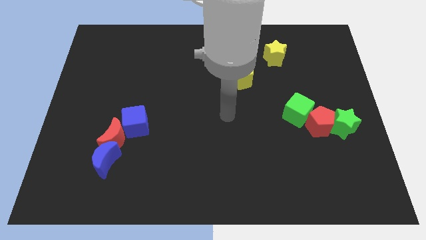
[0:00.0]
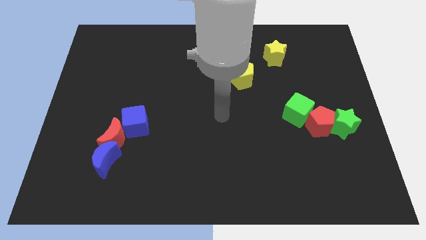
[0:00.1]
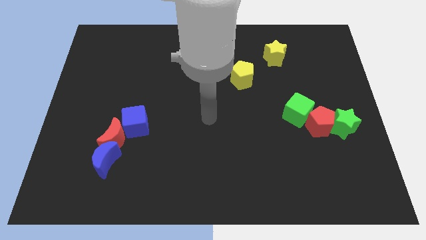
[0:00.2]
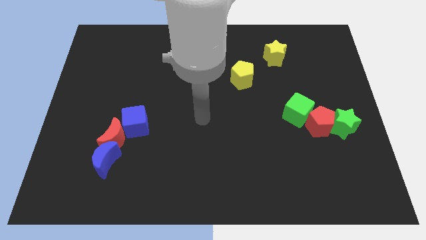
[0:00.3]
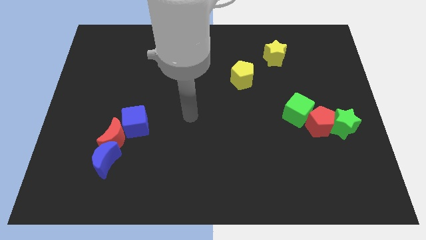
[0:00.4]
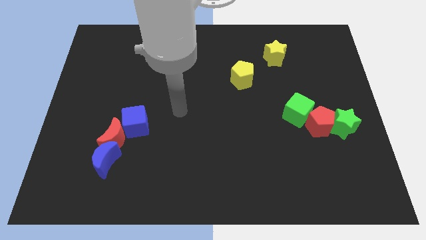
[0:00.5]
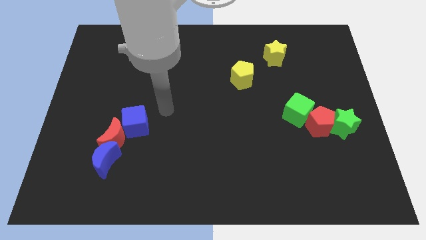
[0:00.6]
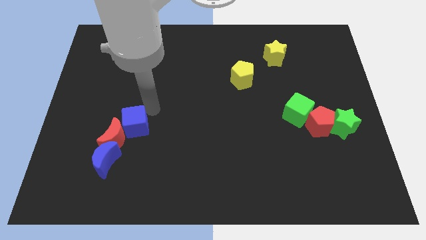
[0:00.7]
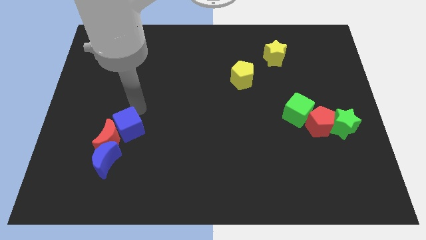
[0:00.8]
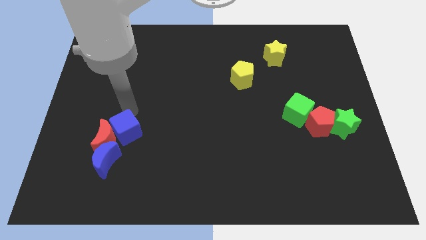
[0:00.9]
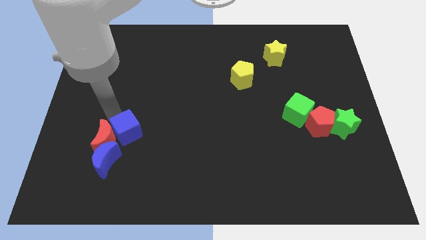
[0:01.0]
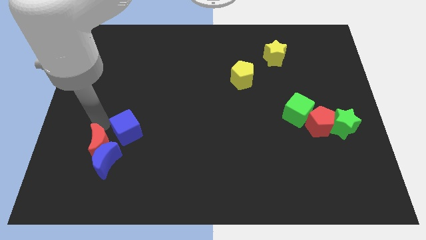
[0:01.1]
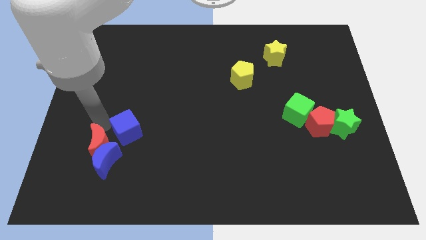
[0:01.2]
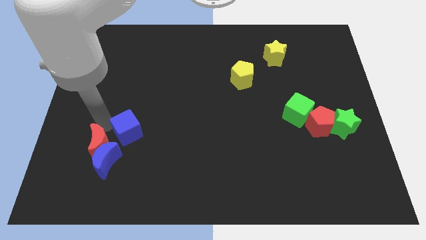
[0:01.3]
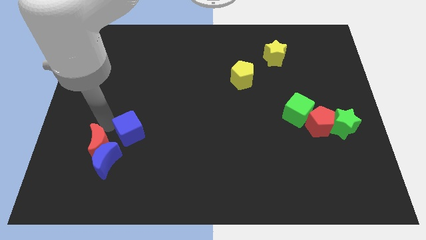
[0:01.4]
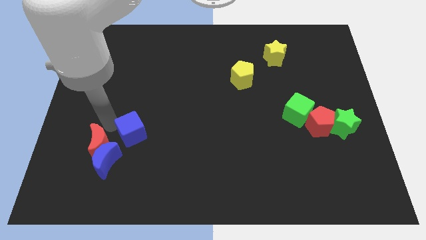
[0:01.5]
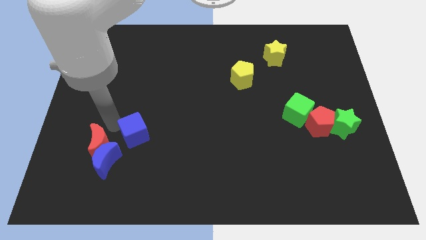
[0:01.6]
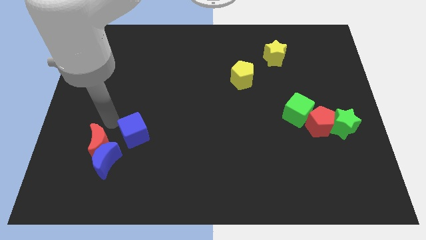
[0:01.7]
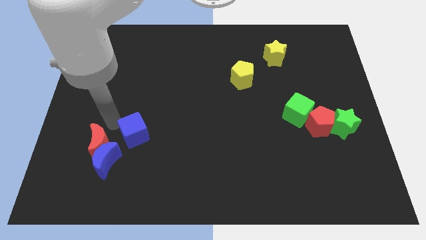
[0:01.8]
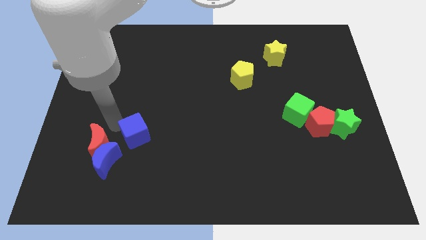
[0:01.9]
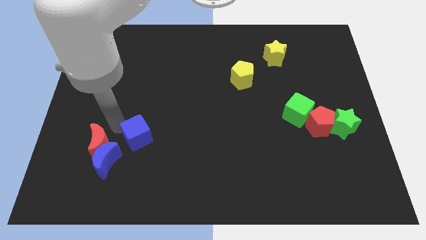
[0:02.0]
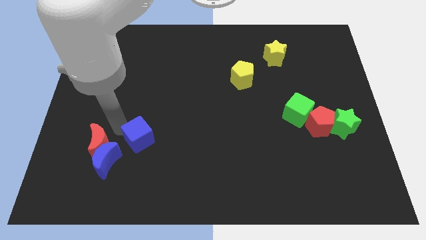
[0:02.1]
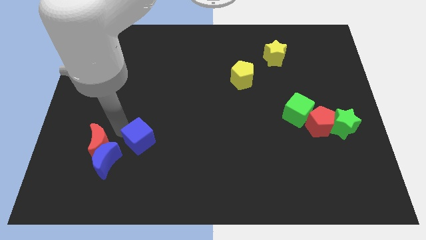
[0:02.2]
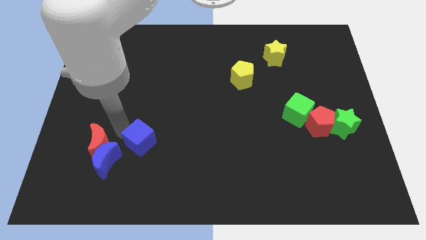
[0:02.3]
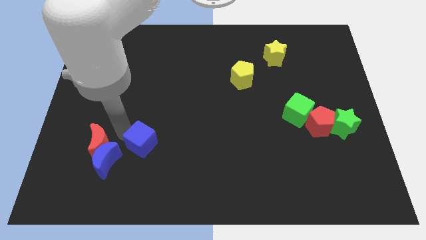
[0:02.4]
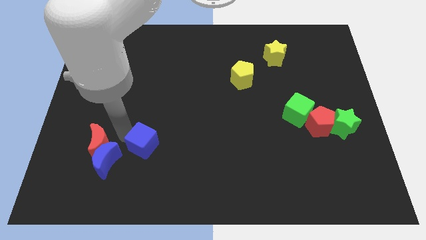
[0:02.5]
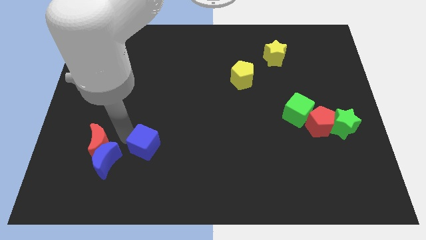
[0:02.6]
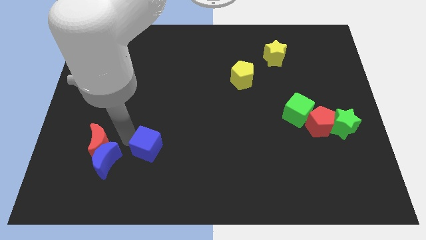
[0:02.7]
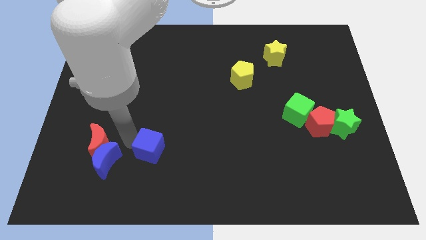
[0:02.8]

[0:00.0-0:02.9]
move the blue cube a little bit down and right diagonally

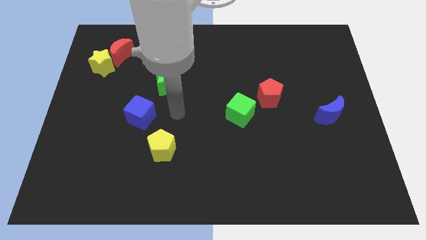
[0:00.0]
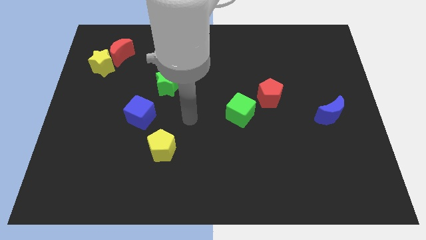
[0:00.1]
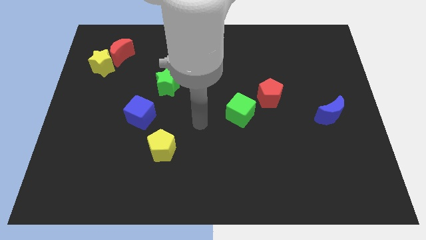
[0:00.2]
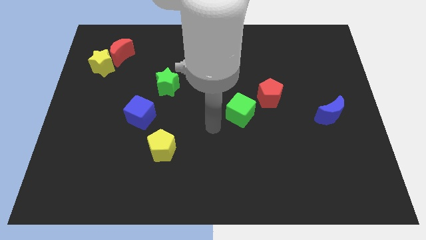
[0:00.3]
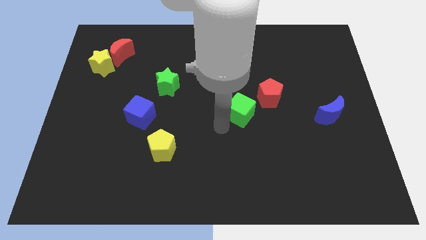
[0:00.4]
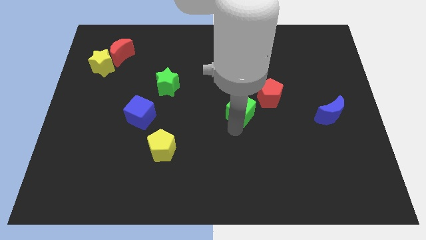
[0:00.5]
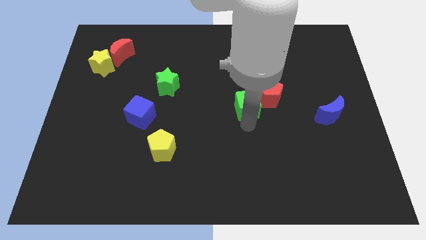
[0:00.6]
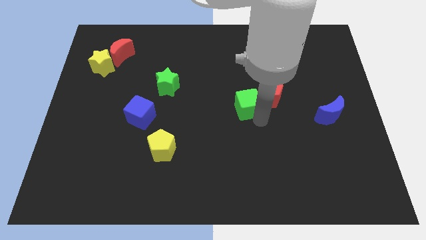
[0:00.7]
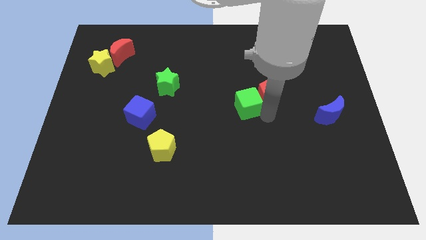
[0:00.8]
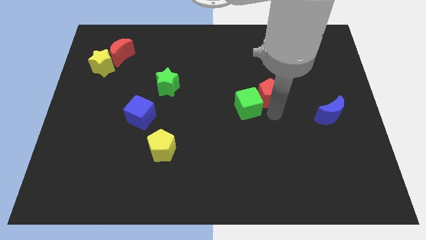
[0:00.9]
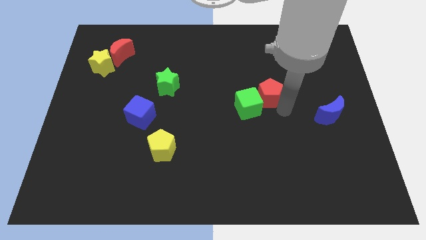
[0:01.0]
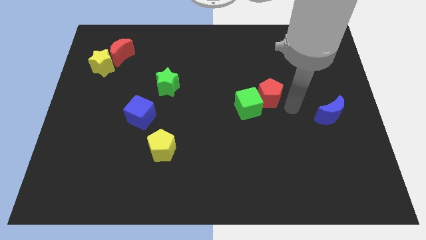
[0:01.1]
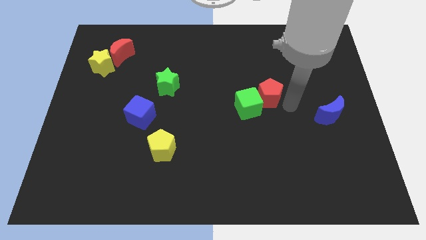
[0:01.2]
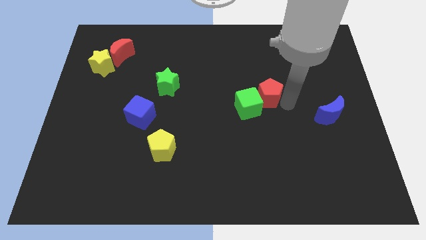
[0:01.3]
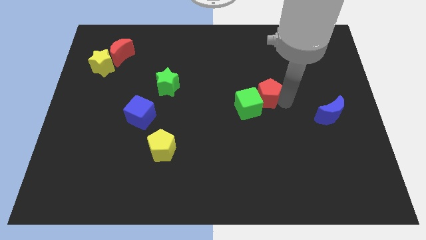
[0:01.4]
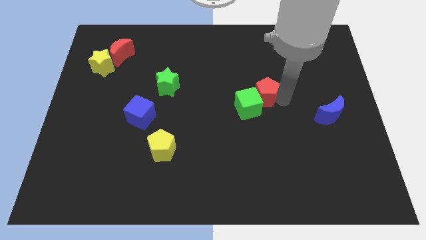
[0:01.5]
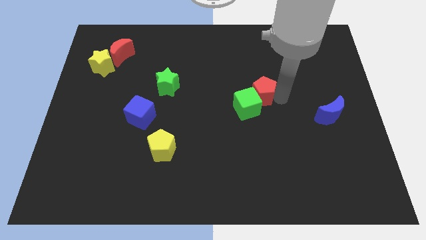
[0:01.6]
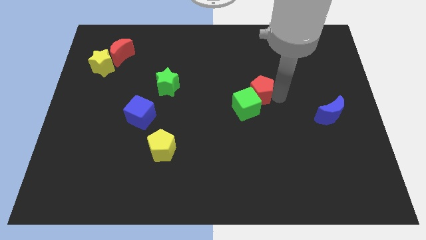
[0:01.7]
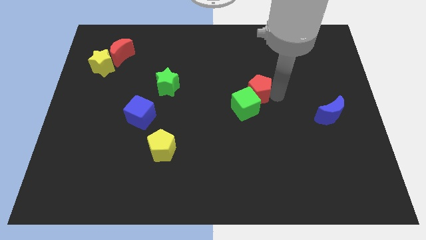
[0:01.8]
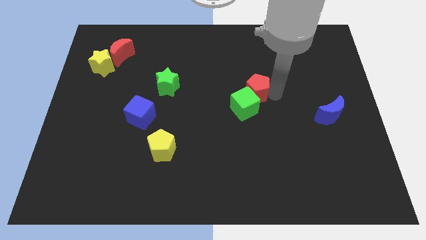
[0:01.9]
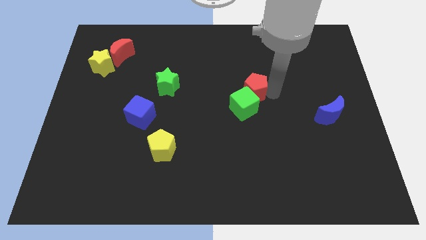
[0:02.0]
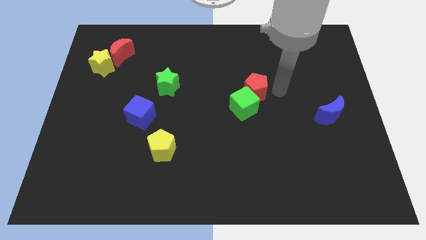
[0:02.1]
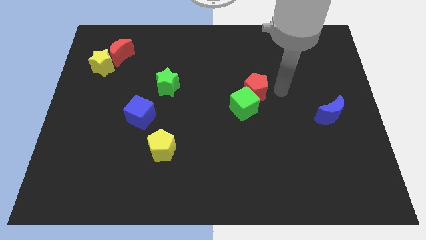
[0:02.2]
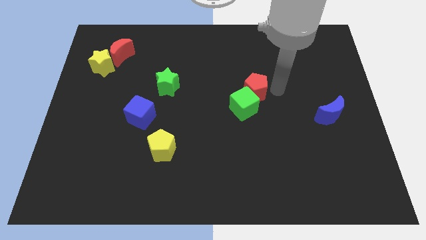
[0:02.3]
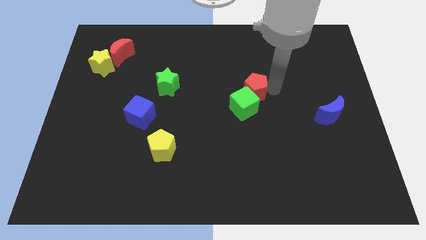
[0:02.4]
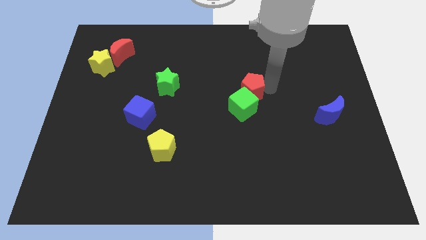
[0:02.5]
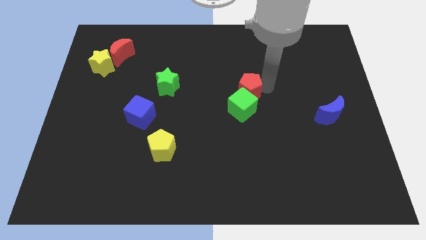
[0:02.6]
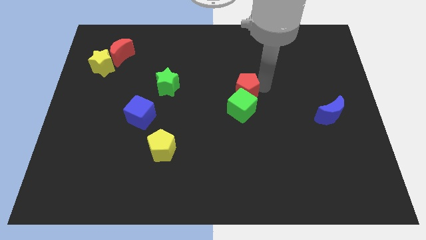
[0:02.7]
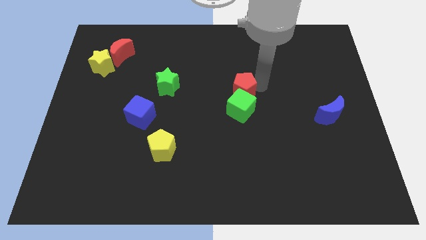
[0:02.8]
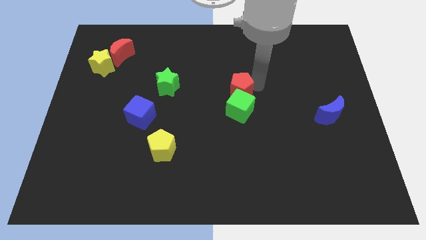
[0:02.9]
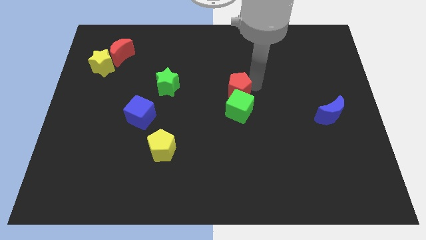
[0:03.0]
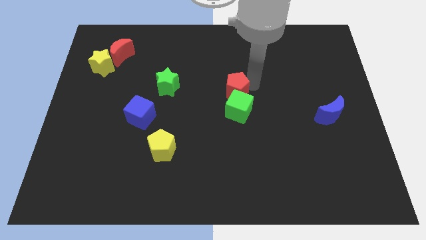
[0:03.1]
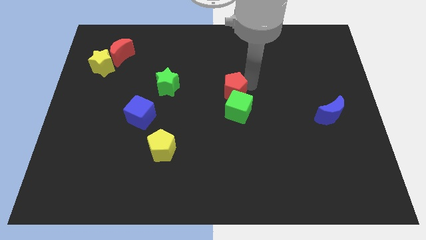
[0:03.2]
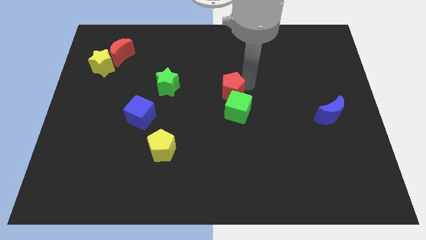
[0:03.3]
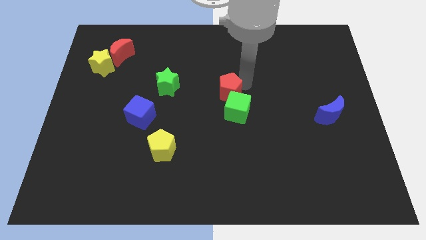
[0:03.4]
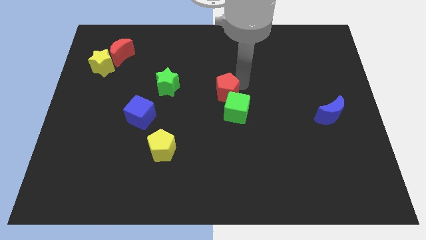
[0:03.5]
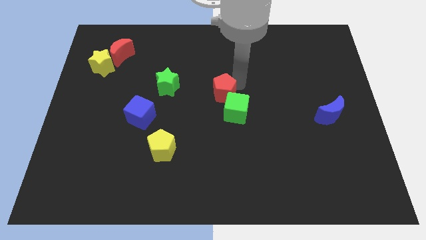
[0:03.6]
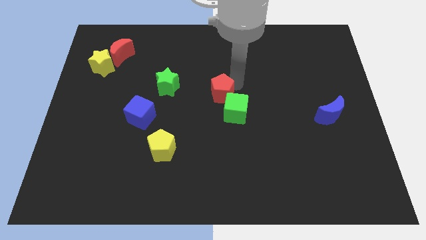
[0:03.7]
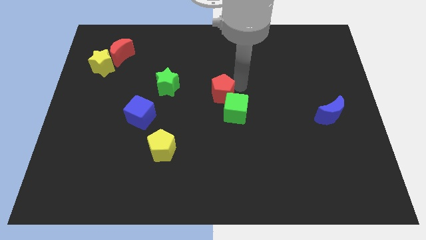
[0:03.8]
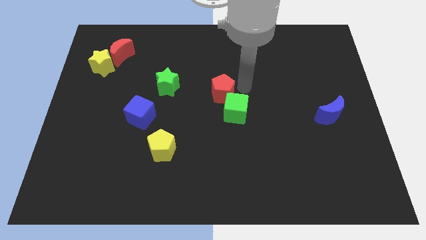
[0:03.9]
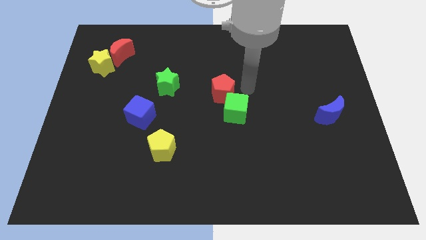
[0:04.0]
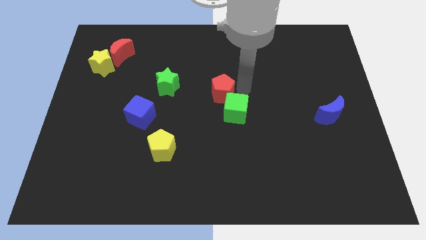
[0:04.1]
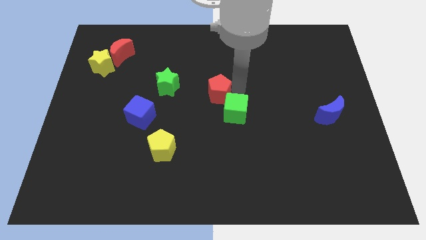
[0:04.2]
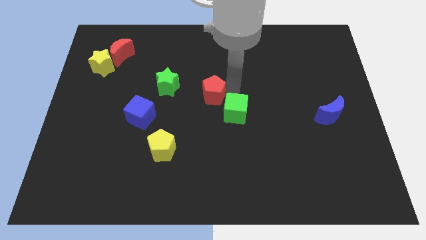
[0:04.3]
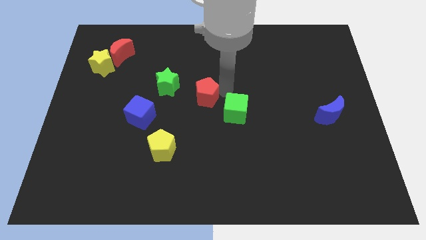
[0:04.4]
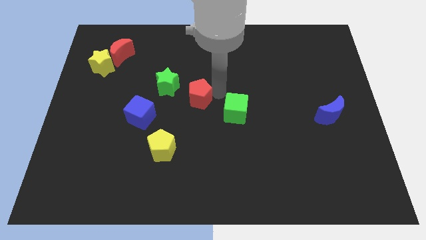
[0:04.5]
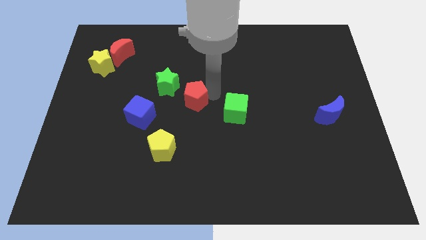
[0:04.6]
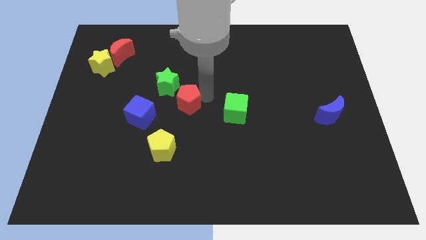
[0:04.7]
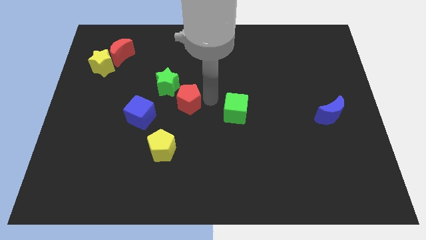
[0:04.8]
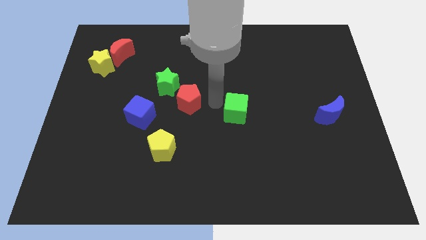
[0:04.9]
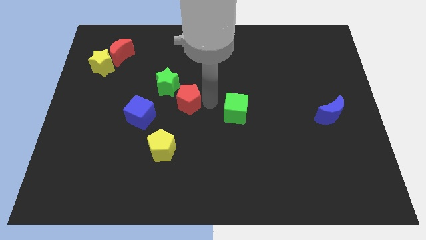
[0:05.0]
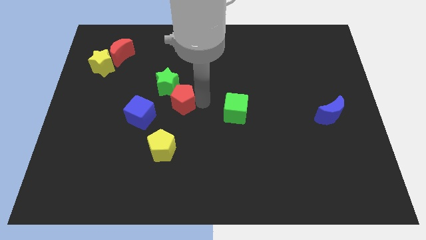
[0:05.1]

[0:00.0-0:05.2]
slide the red pentagon left
